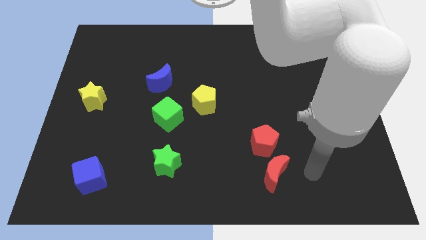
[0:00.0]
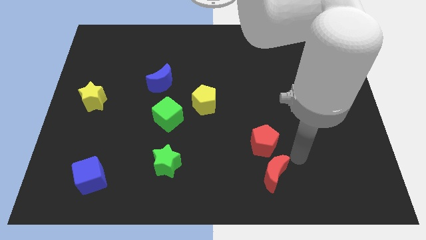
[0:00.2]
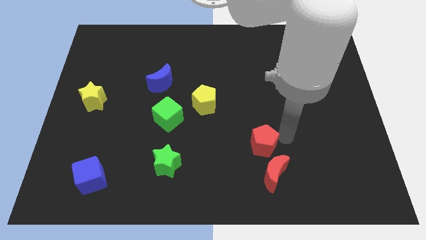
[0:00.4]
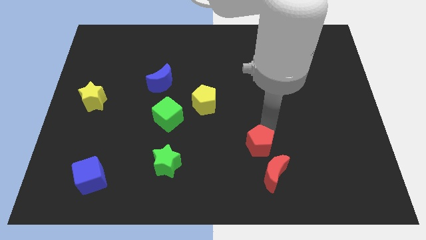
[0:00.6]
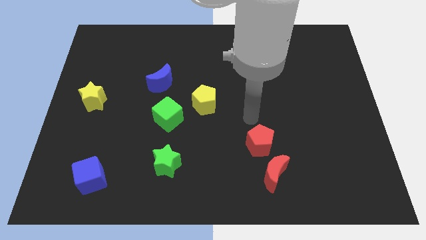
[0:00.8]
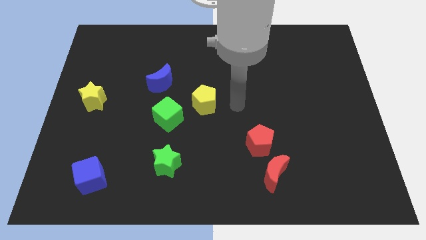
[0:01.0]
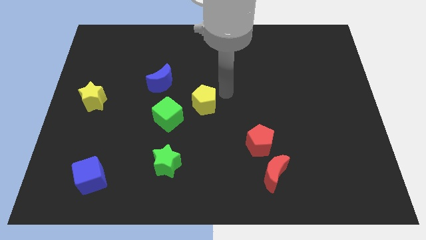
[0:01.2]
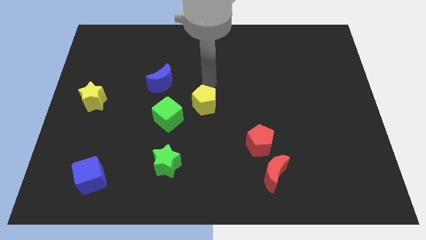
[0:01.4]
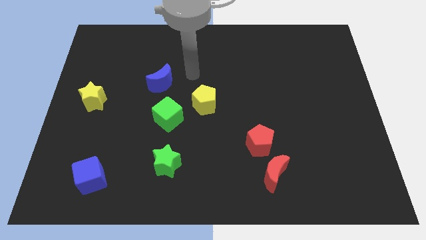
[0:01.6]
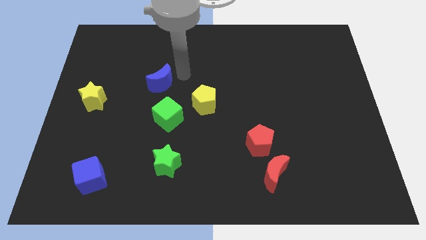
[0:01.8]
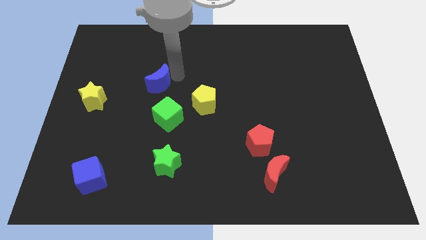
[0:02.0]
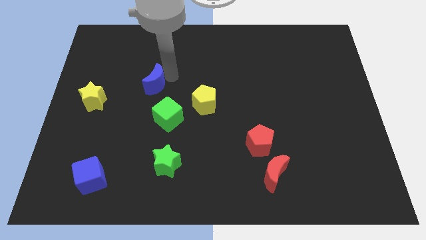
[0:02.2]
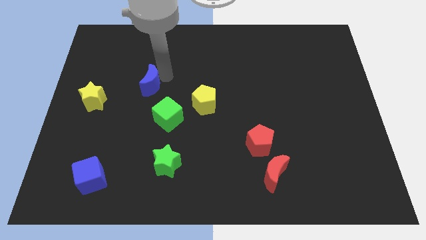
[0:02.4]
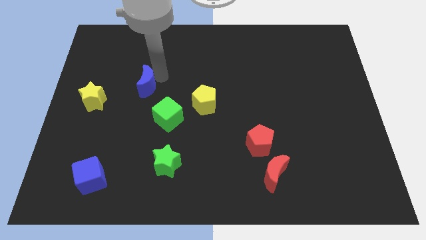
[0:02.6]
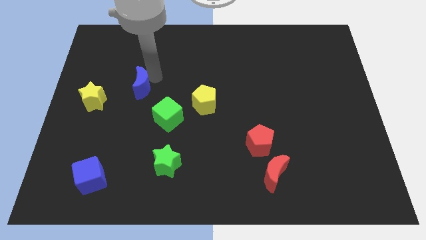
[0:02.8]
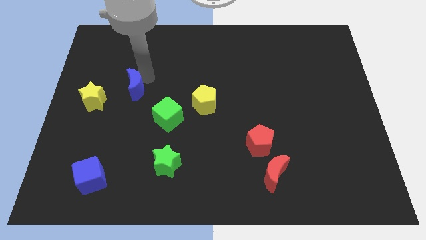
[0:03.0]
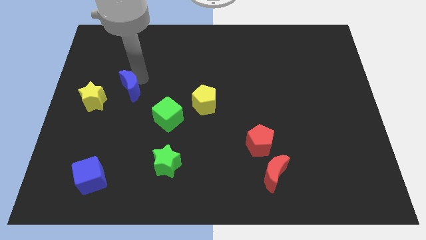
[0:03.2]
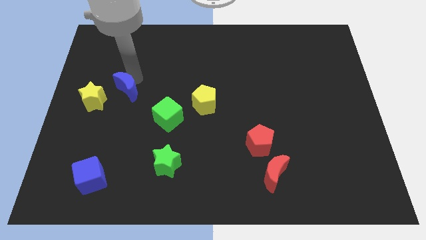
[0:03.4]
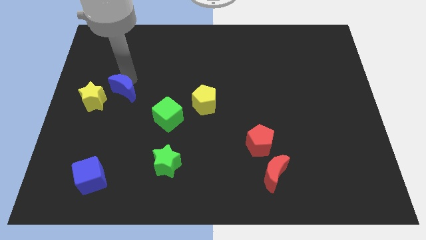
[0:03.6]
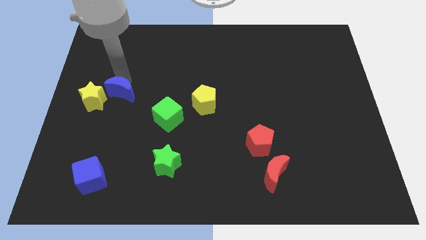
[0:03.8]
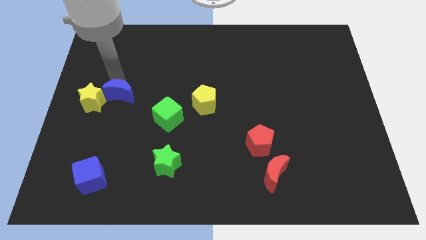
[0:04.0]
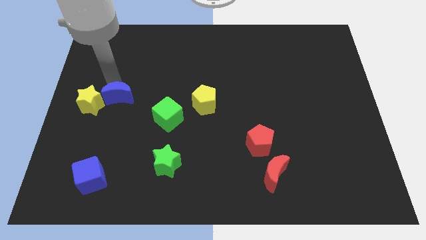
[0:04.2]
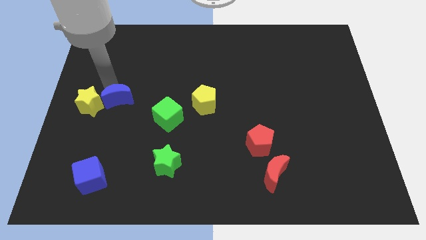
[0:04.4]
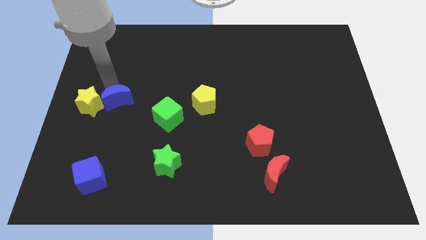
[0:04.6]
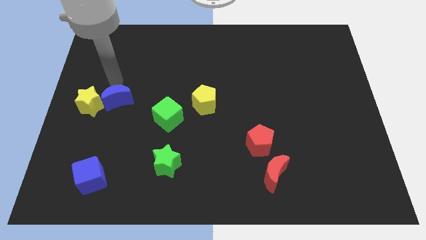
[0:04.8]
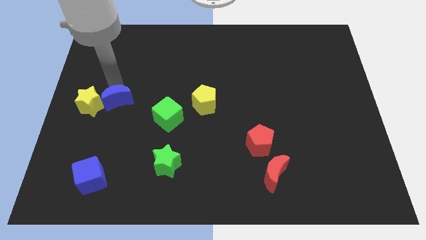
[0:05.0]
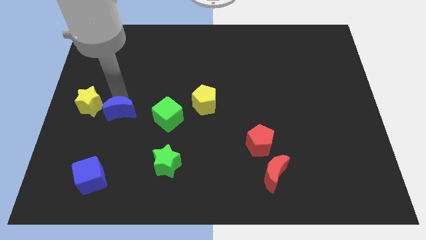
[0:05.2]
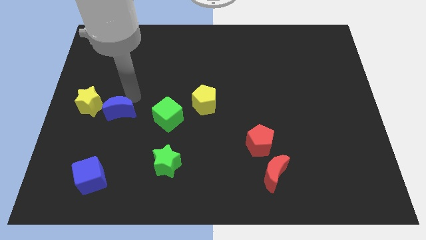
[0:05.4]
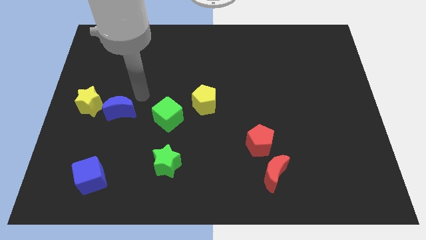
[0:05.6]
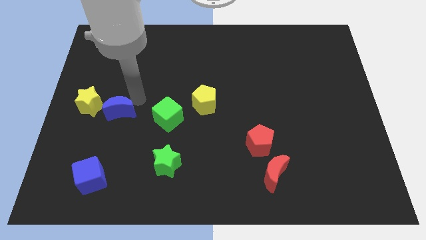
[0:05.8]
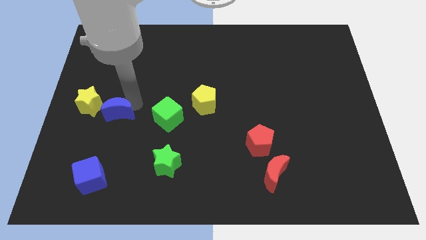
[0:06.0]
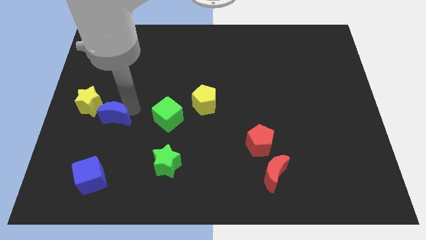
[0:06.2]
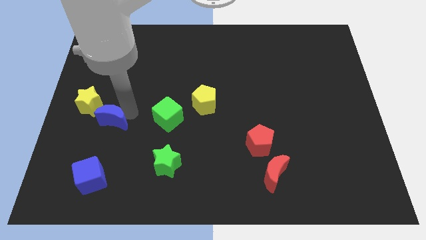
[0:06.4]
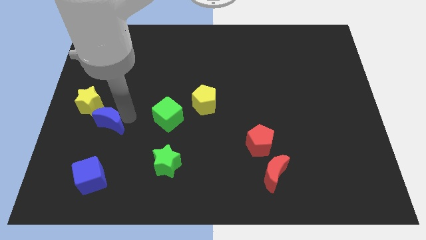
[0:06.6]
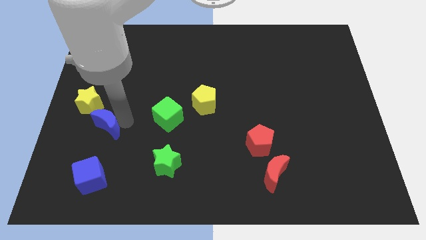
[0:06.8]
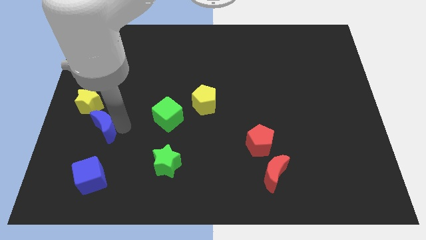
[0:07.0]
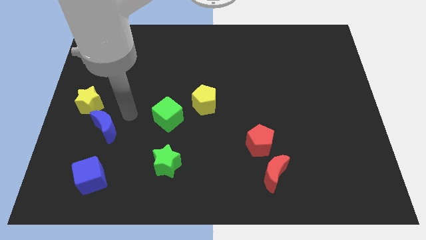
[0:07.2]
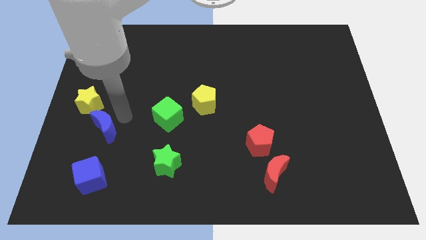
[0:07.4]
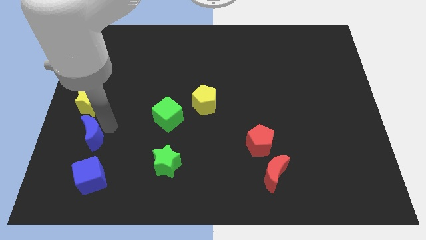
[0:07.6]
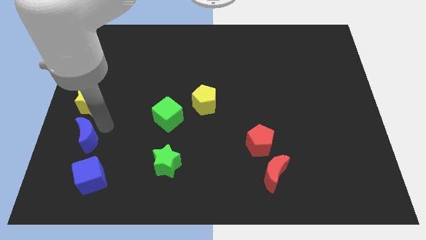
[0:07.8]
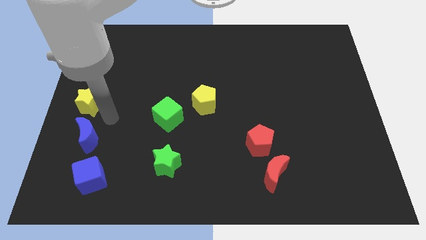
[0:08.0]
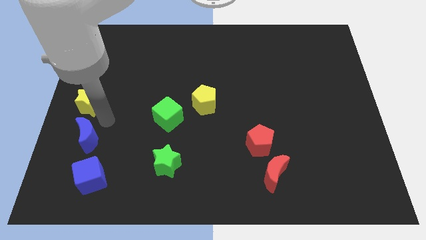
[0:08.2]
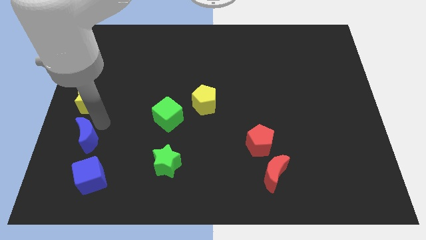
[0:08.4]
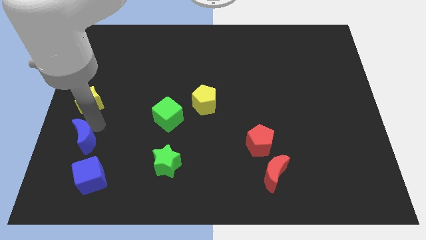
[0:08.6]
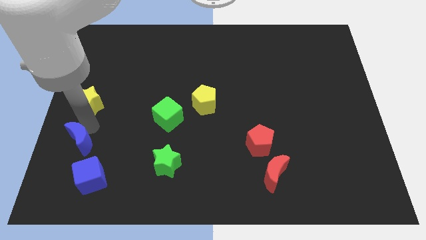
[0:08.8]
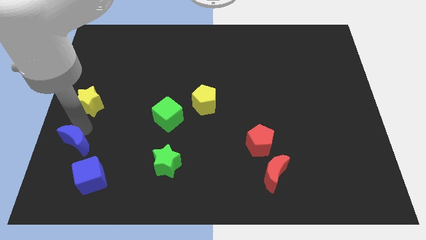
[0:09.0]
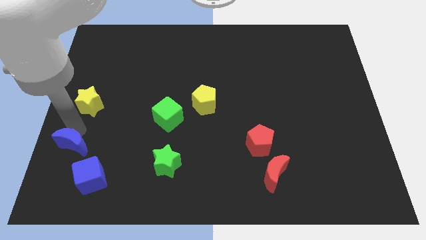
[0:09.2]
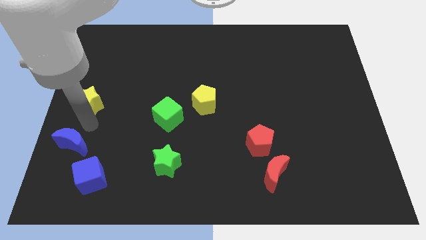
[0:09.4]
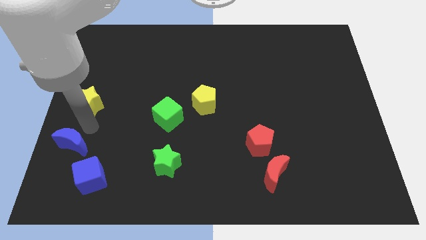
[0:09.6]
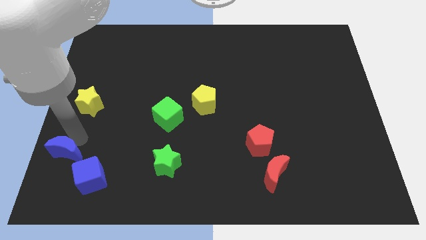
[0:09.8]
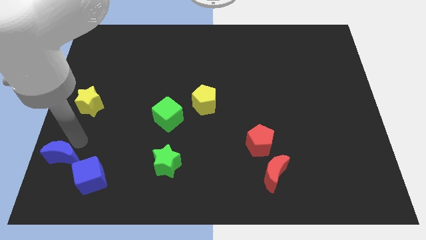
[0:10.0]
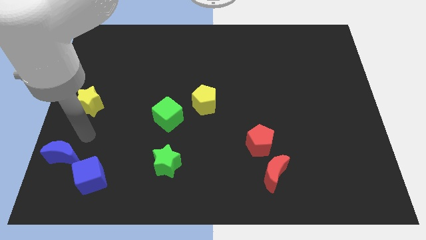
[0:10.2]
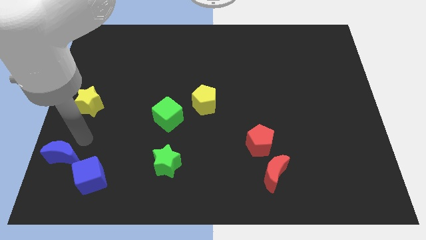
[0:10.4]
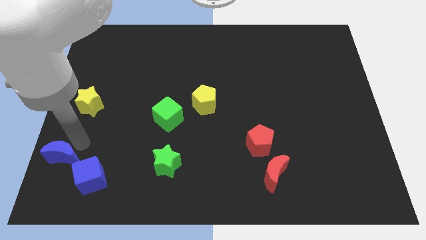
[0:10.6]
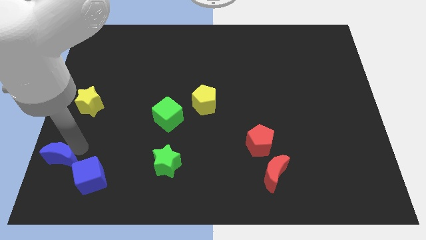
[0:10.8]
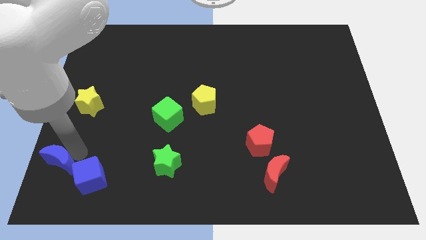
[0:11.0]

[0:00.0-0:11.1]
push the blue moon to the bottom left corner

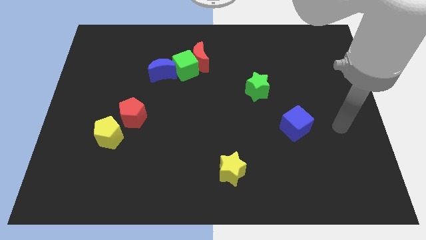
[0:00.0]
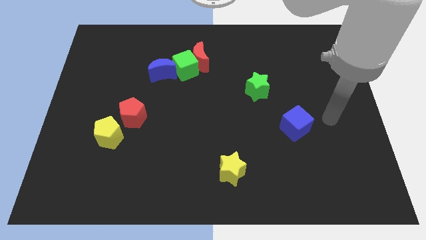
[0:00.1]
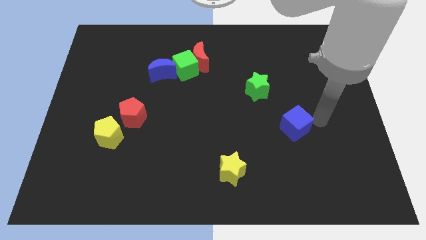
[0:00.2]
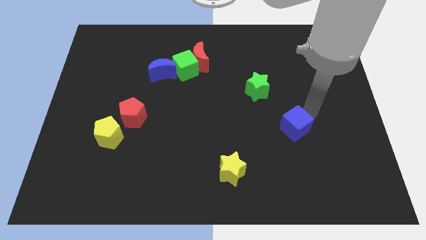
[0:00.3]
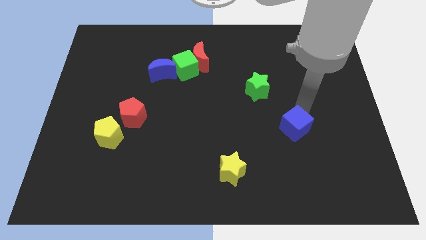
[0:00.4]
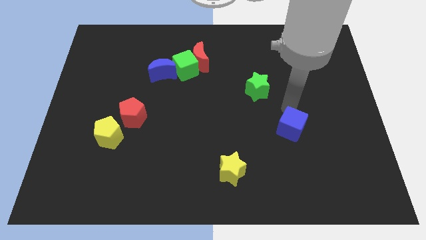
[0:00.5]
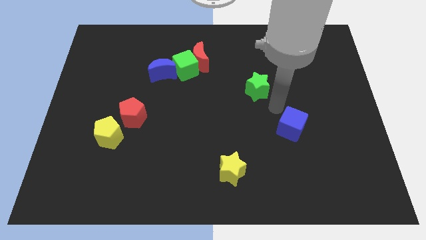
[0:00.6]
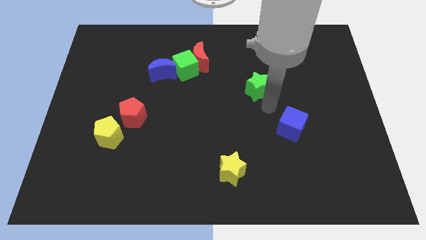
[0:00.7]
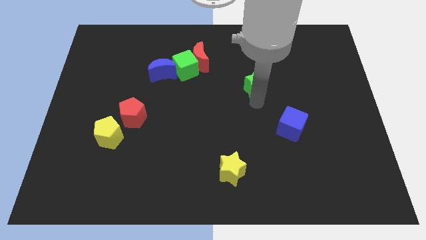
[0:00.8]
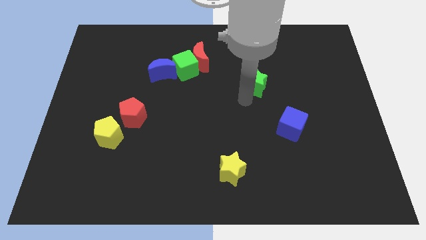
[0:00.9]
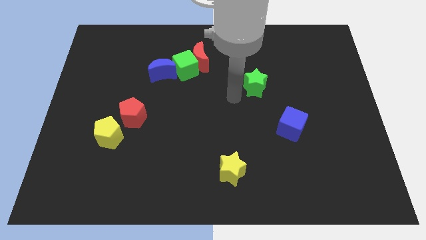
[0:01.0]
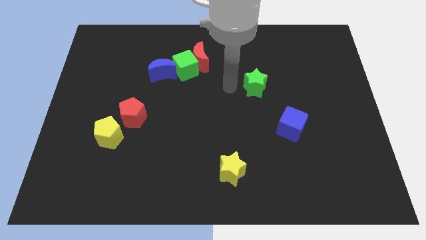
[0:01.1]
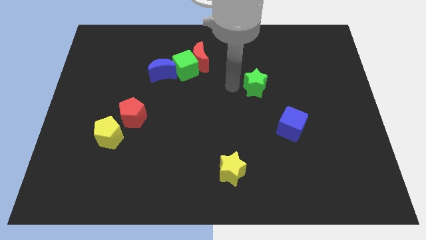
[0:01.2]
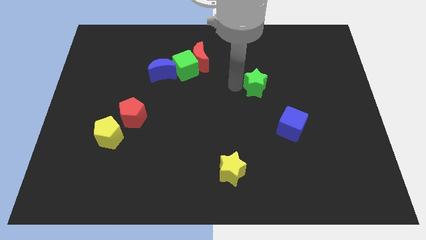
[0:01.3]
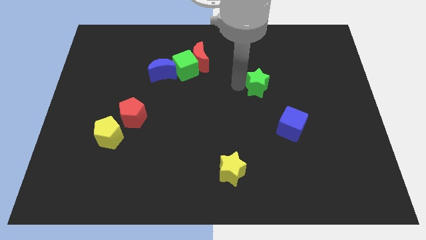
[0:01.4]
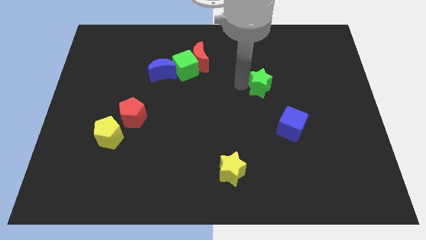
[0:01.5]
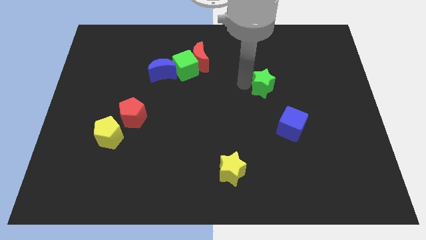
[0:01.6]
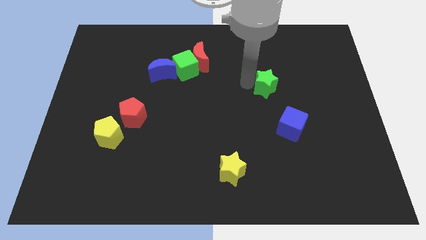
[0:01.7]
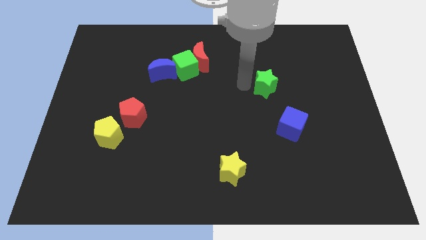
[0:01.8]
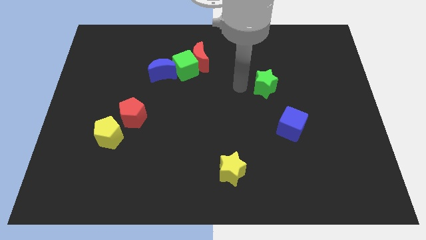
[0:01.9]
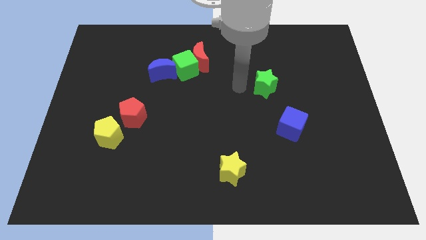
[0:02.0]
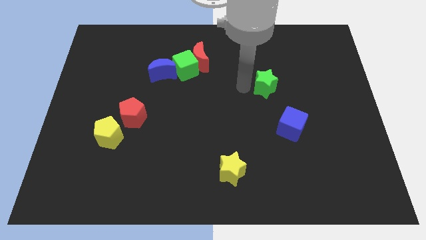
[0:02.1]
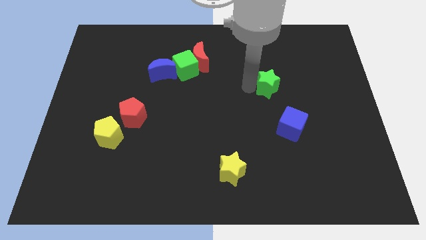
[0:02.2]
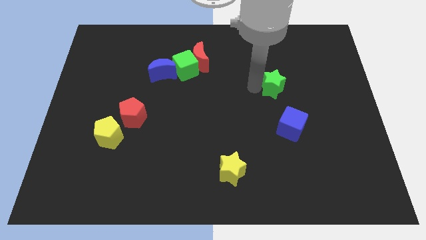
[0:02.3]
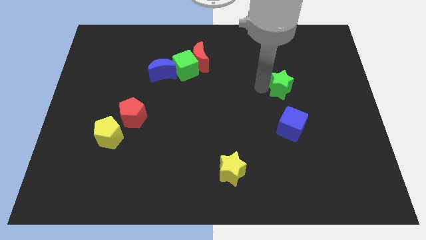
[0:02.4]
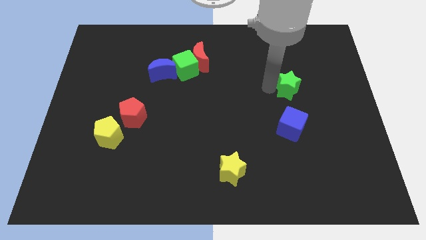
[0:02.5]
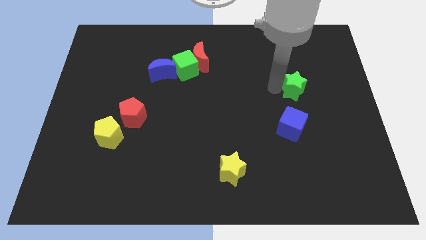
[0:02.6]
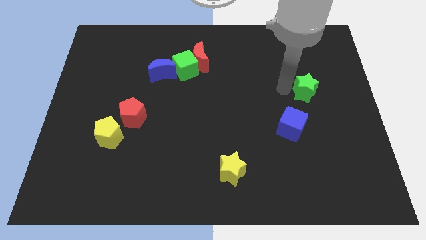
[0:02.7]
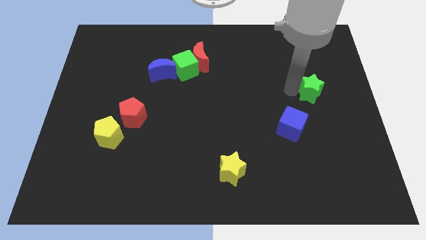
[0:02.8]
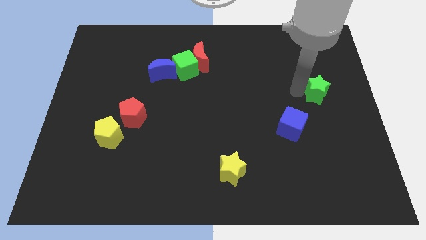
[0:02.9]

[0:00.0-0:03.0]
put the green star to the right side of the board
